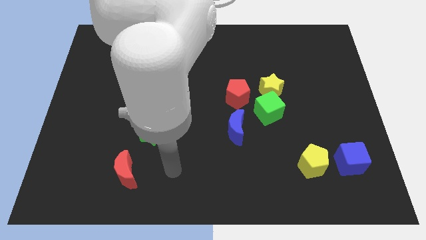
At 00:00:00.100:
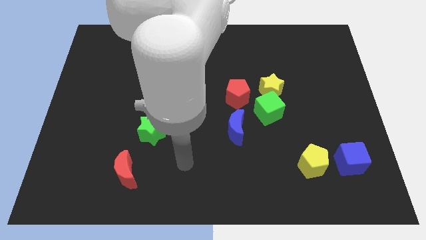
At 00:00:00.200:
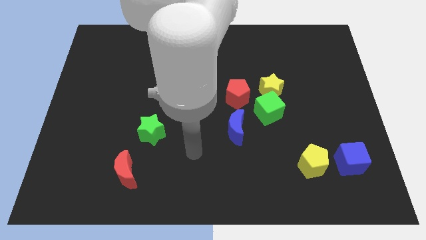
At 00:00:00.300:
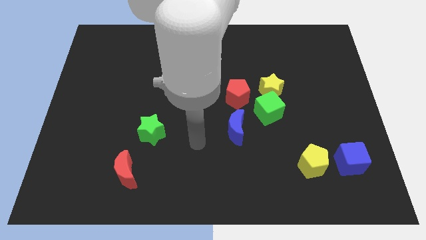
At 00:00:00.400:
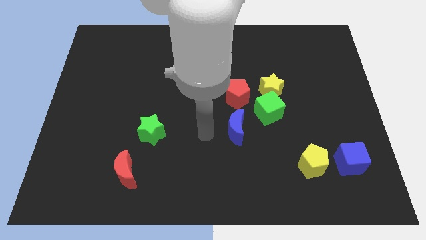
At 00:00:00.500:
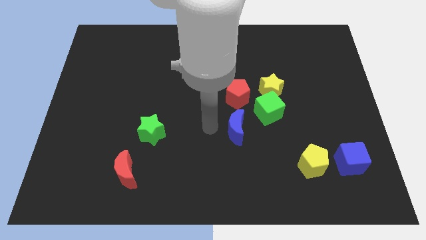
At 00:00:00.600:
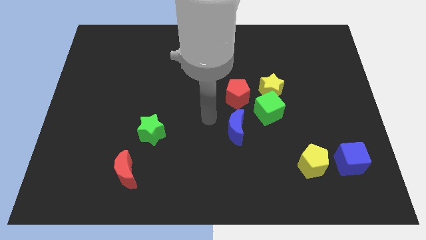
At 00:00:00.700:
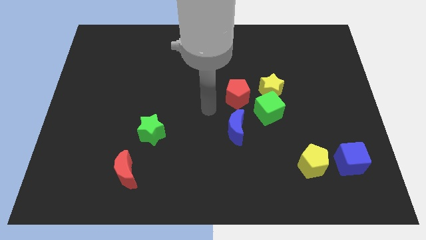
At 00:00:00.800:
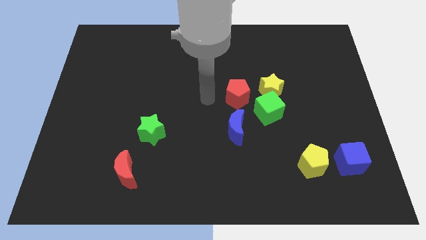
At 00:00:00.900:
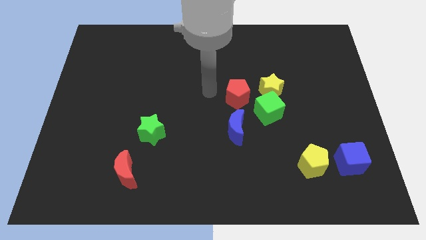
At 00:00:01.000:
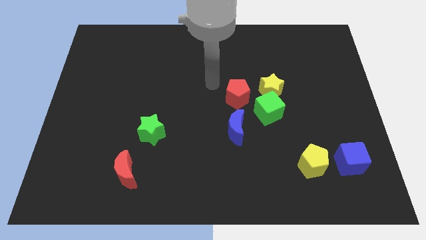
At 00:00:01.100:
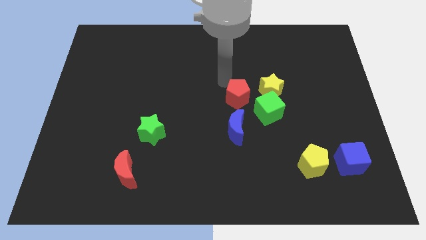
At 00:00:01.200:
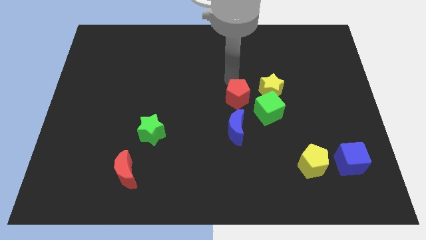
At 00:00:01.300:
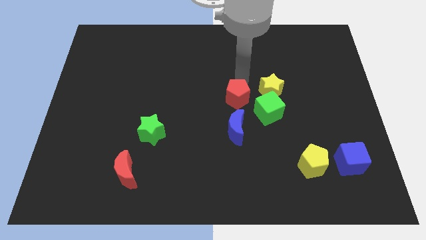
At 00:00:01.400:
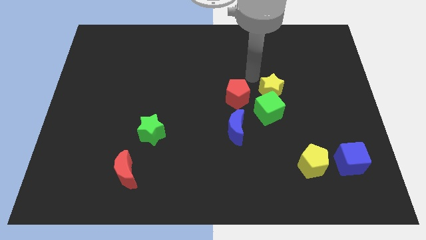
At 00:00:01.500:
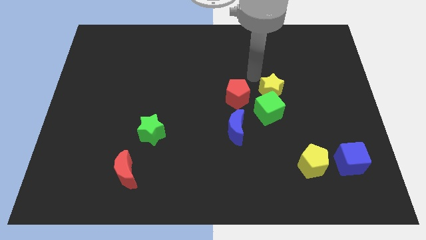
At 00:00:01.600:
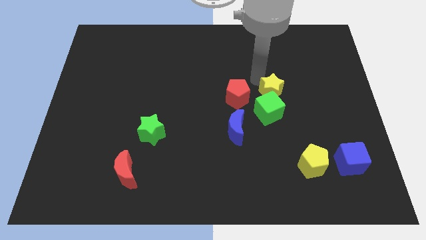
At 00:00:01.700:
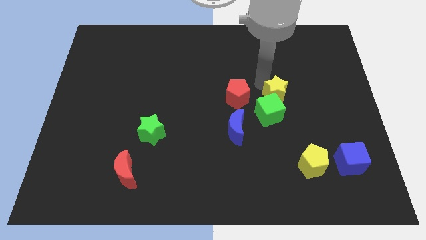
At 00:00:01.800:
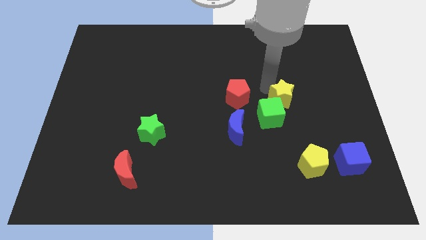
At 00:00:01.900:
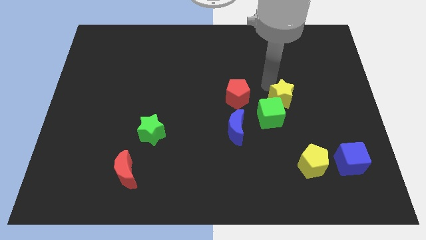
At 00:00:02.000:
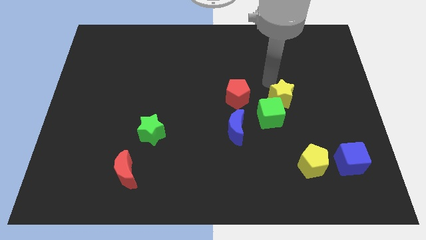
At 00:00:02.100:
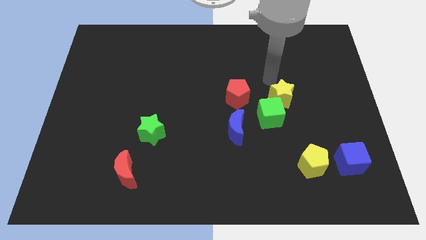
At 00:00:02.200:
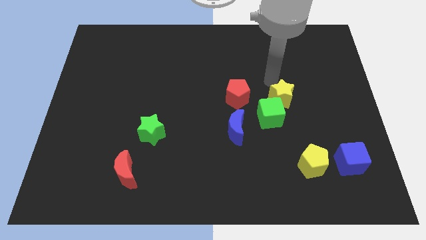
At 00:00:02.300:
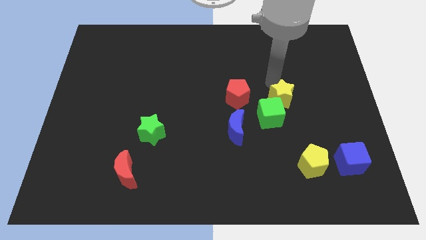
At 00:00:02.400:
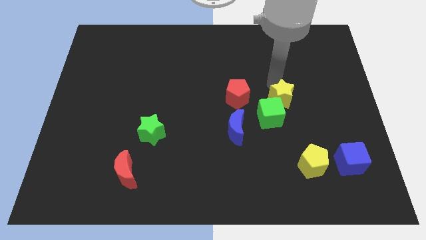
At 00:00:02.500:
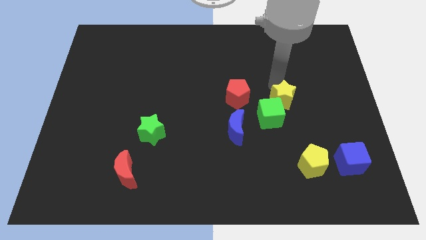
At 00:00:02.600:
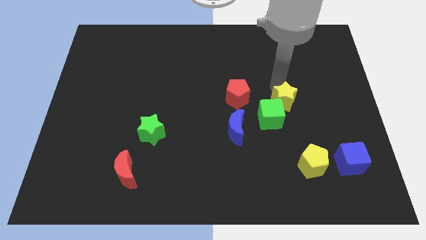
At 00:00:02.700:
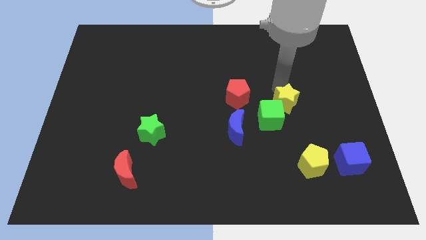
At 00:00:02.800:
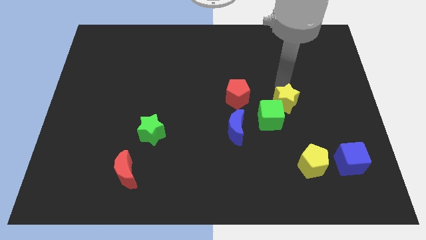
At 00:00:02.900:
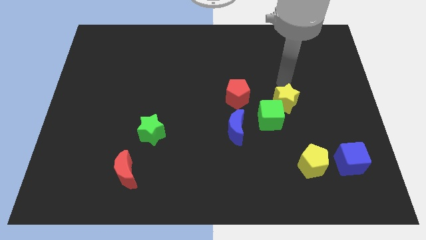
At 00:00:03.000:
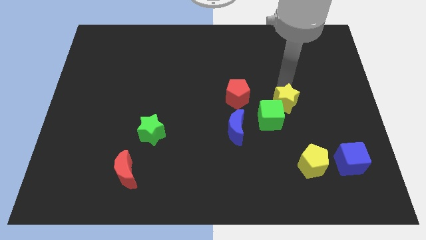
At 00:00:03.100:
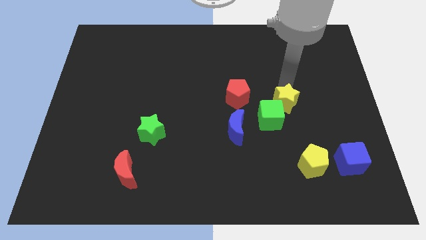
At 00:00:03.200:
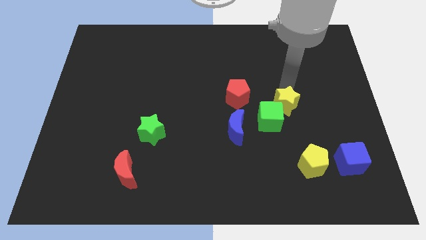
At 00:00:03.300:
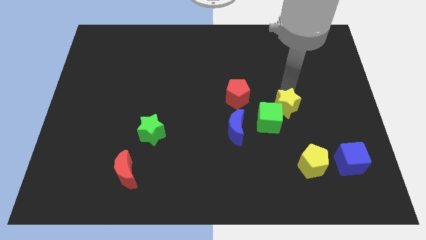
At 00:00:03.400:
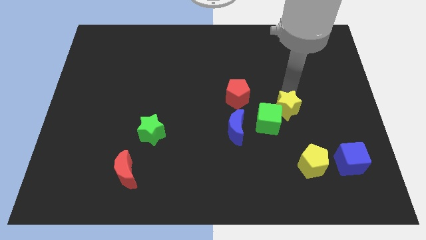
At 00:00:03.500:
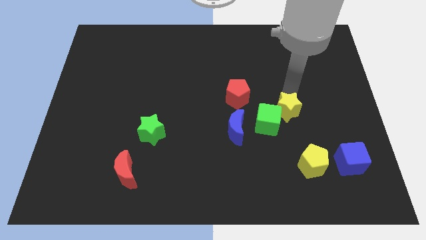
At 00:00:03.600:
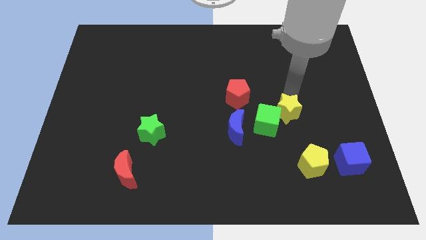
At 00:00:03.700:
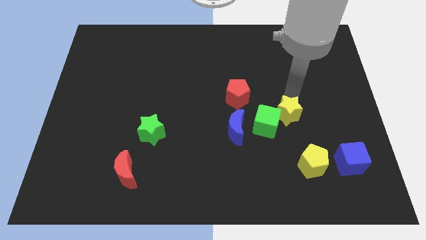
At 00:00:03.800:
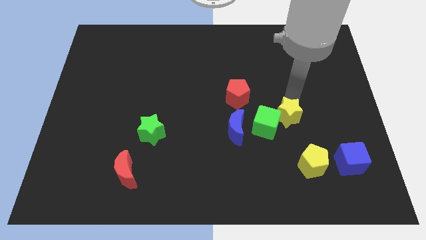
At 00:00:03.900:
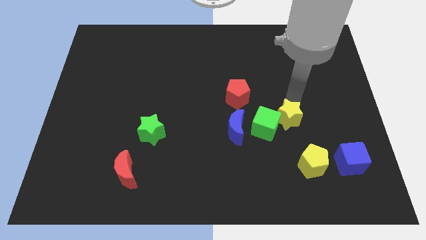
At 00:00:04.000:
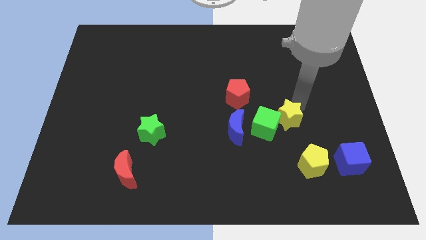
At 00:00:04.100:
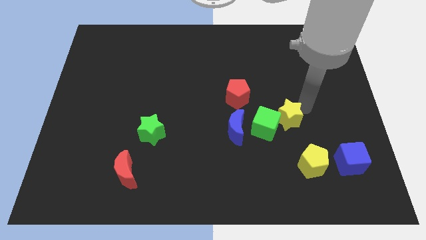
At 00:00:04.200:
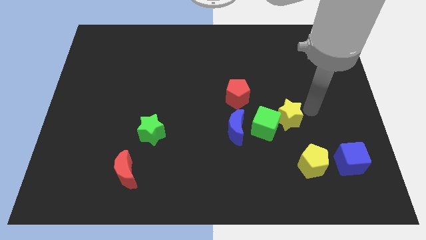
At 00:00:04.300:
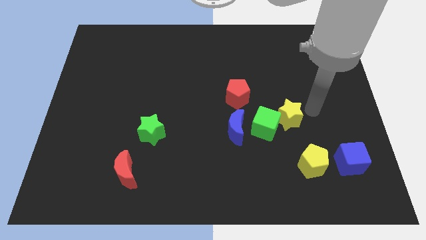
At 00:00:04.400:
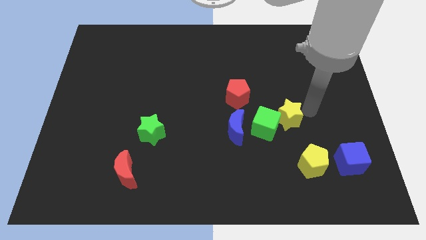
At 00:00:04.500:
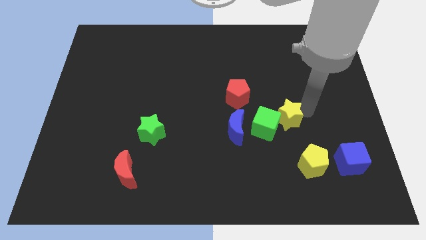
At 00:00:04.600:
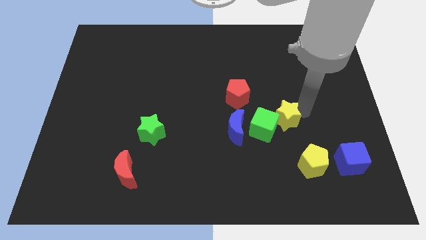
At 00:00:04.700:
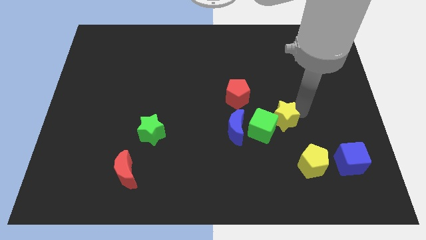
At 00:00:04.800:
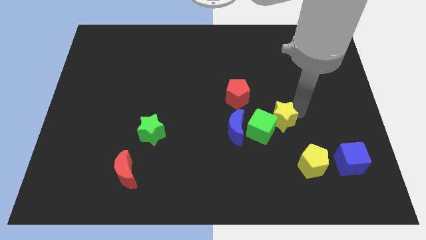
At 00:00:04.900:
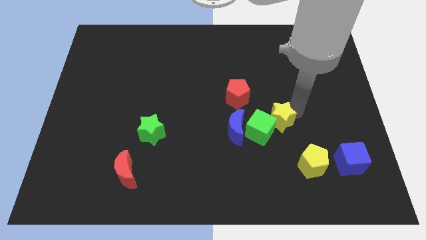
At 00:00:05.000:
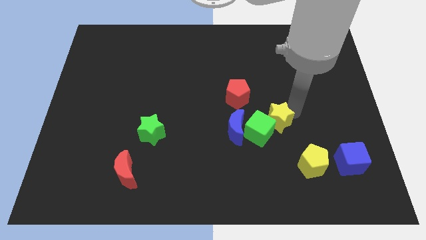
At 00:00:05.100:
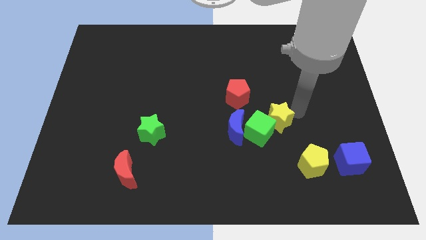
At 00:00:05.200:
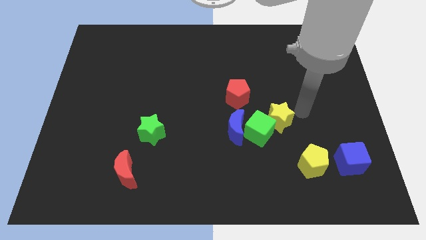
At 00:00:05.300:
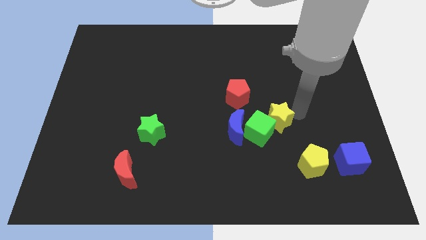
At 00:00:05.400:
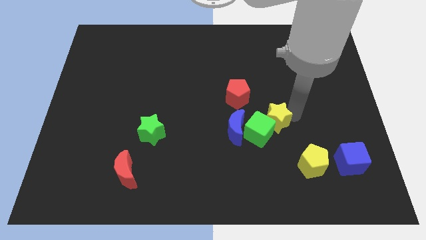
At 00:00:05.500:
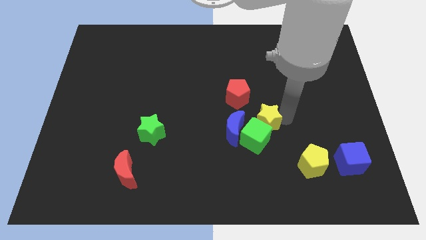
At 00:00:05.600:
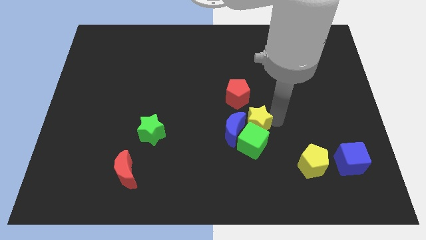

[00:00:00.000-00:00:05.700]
move the yellow star towards the blue moon

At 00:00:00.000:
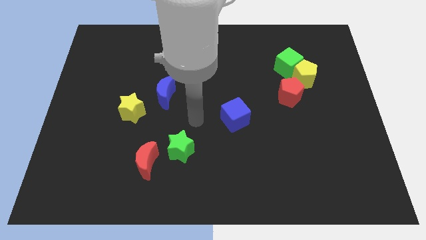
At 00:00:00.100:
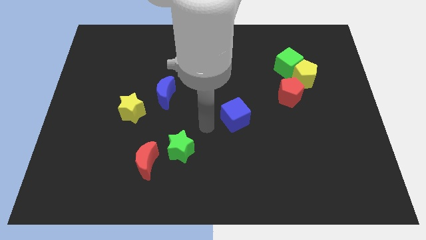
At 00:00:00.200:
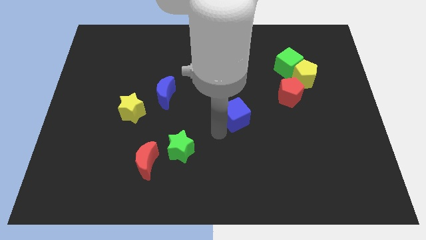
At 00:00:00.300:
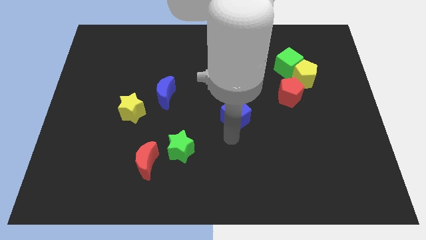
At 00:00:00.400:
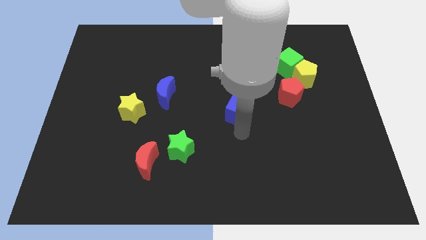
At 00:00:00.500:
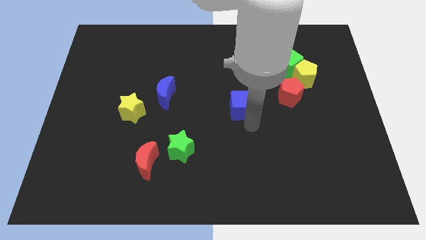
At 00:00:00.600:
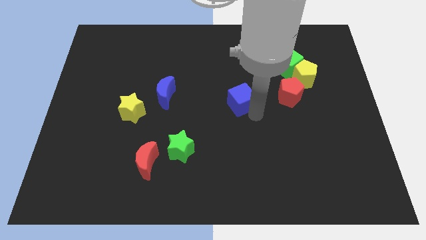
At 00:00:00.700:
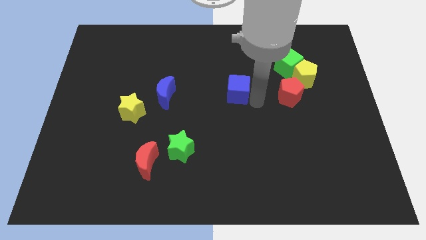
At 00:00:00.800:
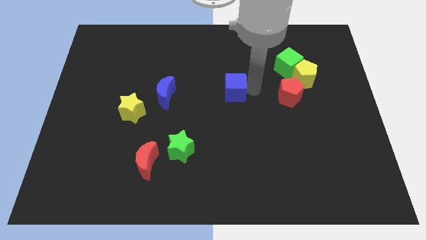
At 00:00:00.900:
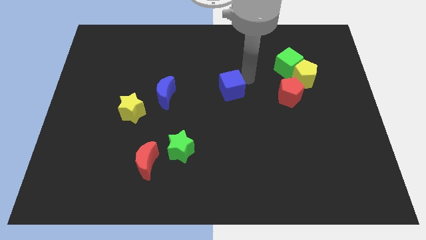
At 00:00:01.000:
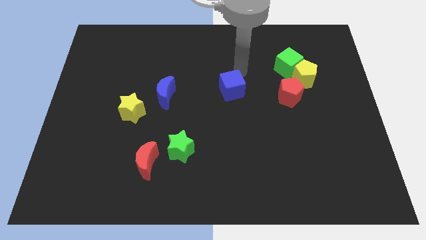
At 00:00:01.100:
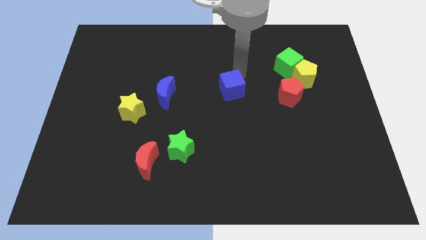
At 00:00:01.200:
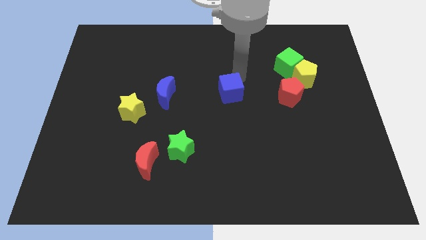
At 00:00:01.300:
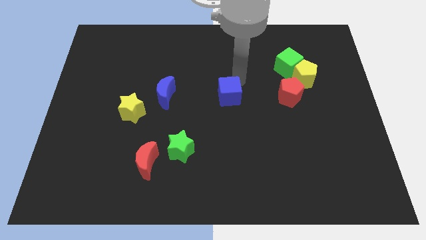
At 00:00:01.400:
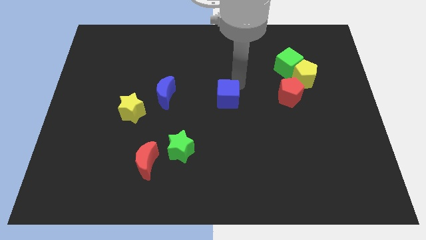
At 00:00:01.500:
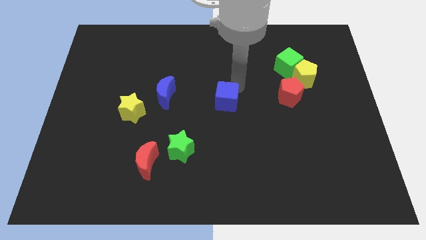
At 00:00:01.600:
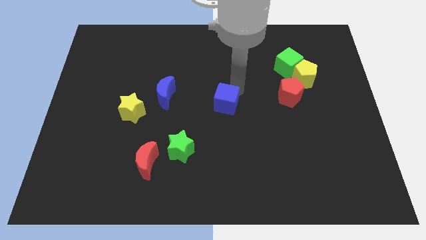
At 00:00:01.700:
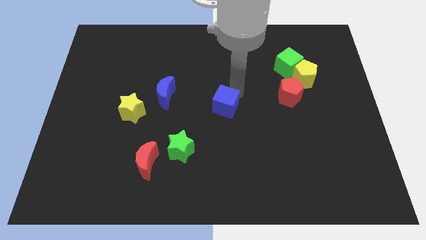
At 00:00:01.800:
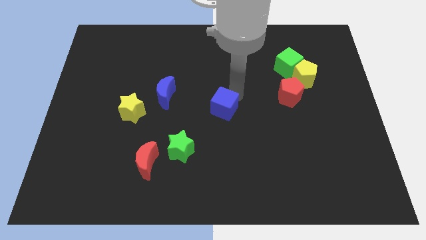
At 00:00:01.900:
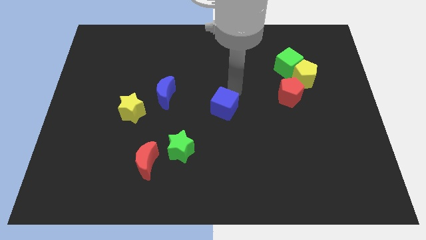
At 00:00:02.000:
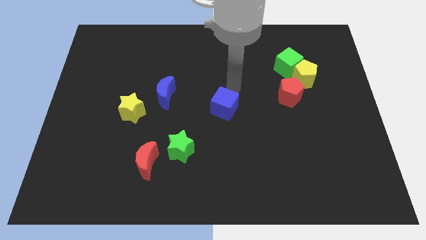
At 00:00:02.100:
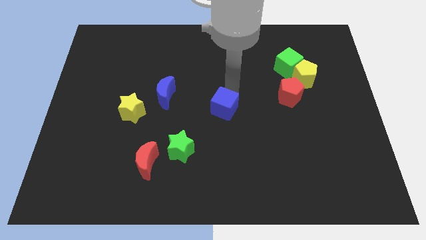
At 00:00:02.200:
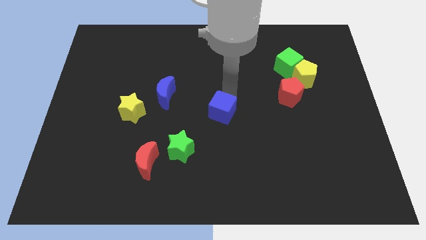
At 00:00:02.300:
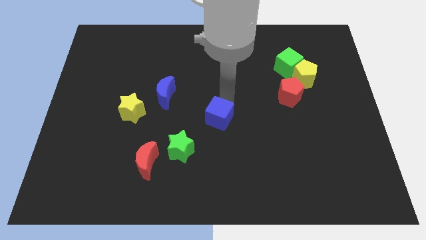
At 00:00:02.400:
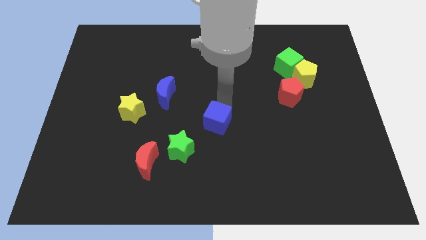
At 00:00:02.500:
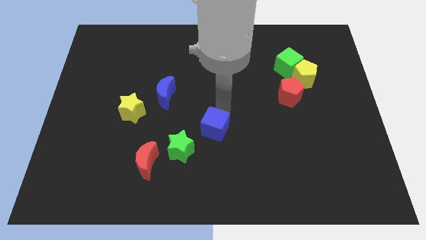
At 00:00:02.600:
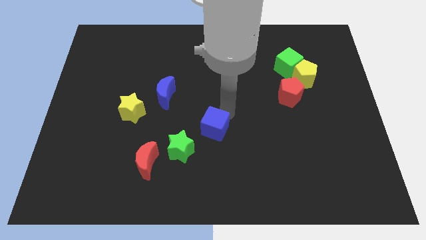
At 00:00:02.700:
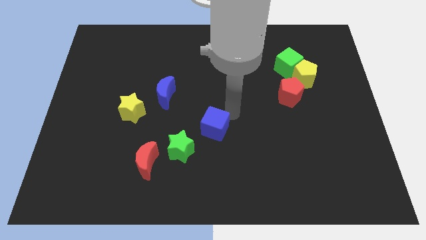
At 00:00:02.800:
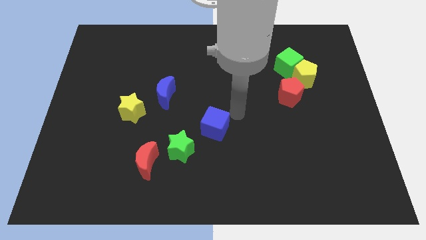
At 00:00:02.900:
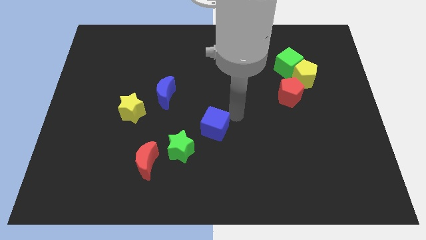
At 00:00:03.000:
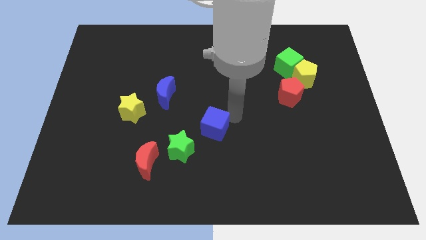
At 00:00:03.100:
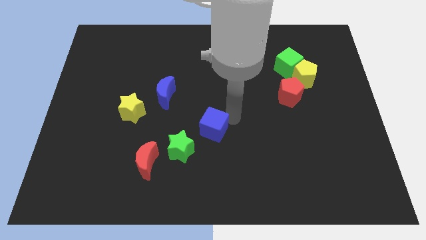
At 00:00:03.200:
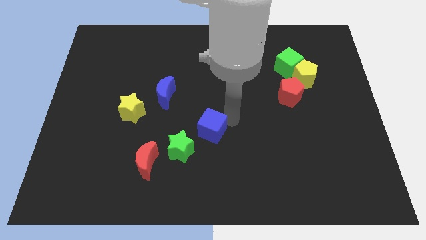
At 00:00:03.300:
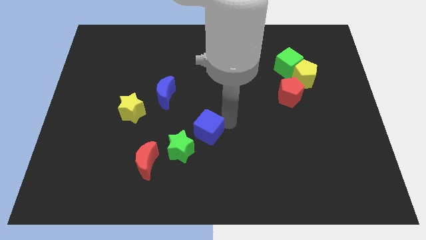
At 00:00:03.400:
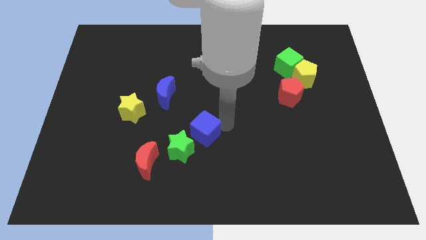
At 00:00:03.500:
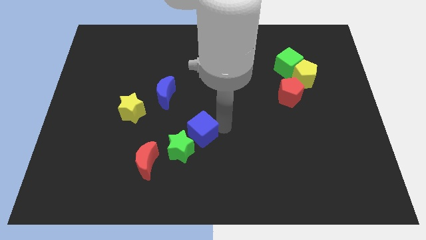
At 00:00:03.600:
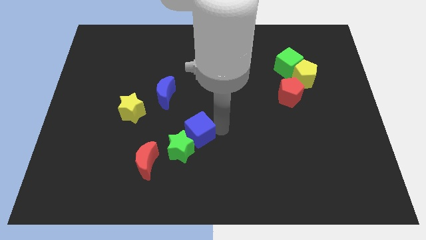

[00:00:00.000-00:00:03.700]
slide the blue cube next to the green star
